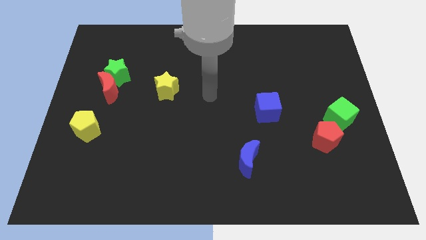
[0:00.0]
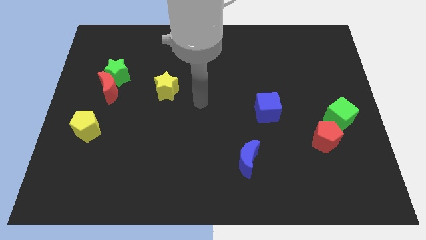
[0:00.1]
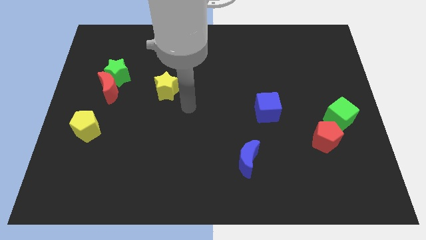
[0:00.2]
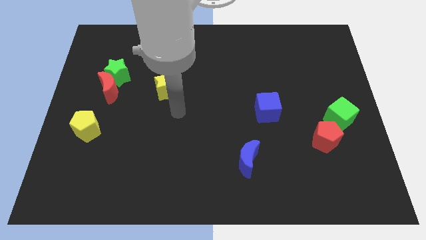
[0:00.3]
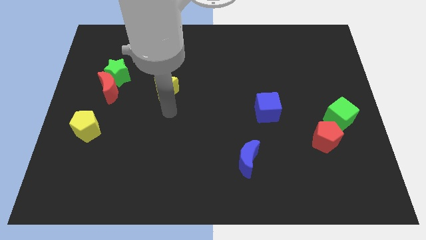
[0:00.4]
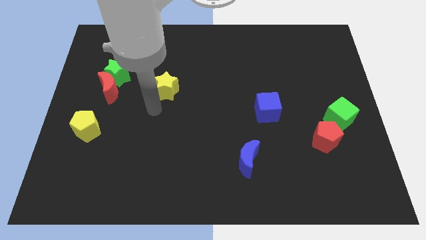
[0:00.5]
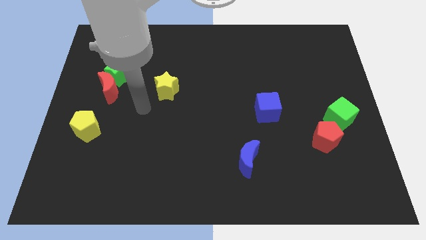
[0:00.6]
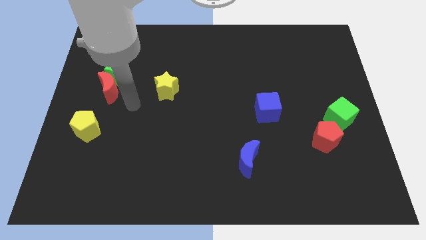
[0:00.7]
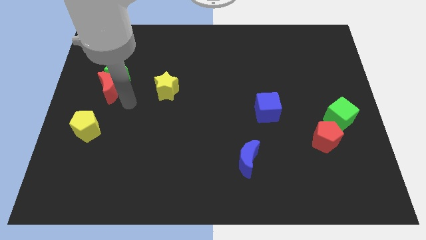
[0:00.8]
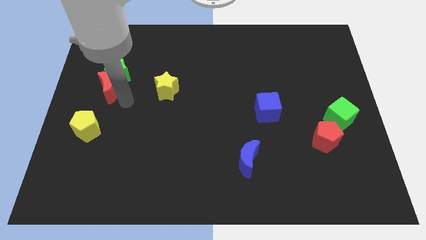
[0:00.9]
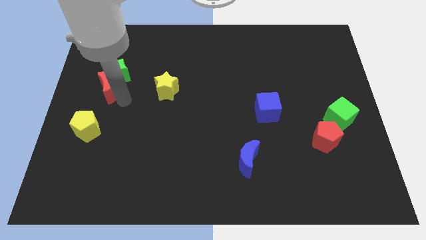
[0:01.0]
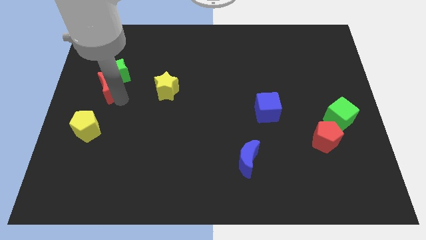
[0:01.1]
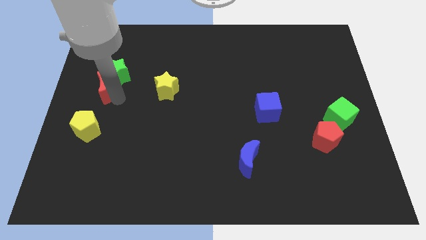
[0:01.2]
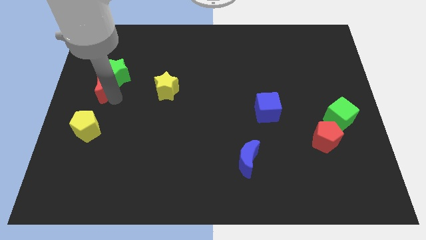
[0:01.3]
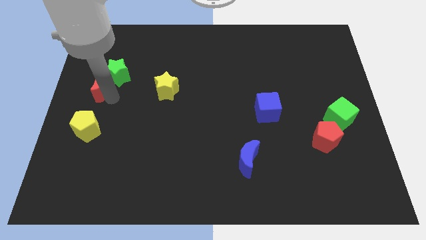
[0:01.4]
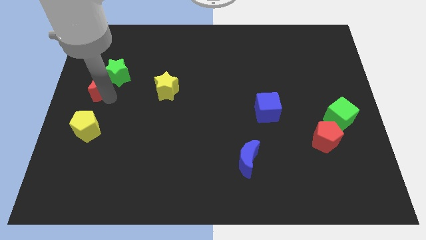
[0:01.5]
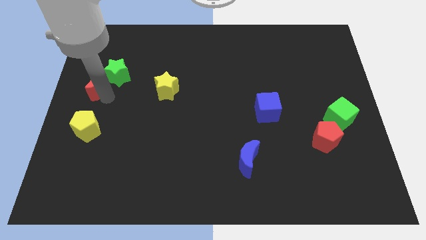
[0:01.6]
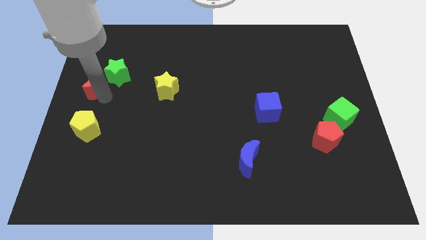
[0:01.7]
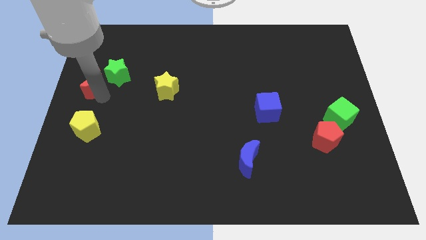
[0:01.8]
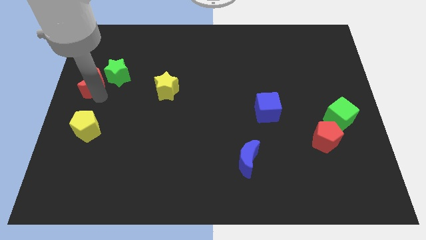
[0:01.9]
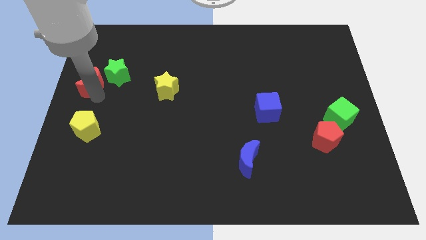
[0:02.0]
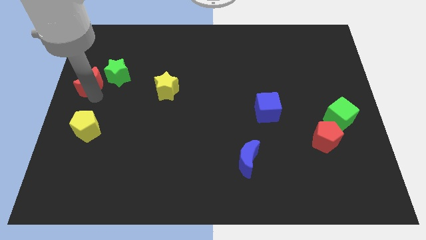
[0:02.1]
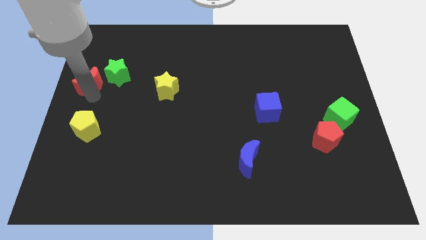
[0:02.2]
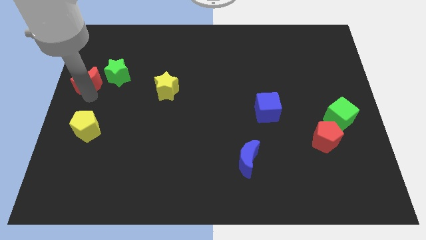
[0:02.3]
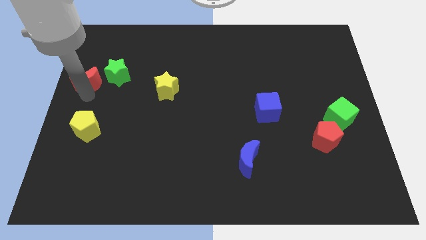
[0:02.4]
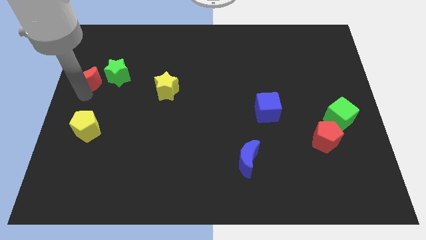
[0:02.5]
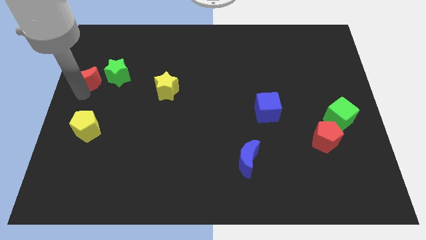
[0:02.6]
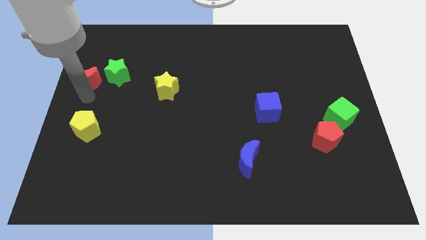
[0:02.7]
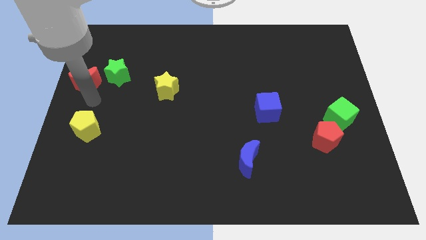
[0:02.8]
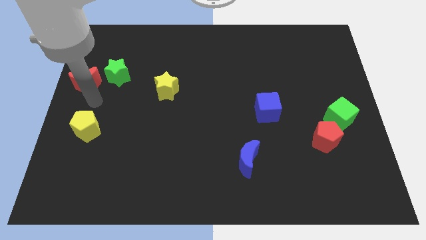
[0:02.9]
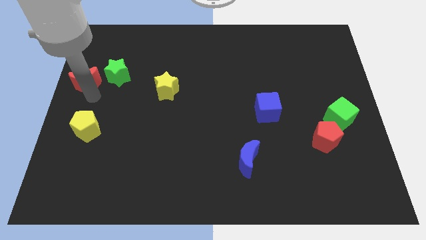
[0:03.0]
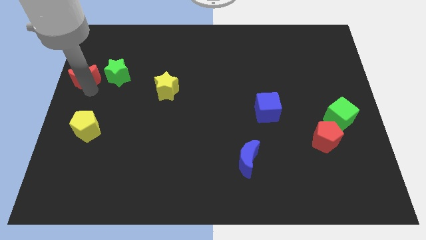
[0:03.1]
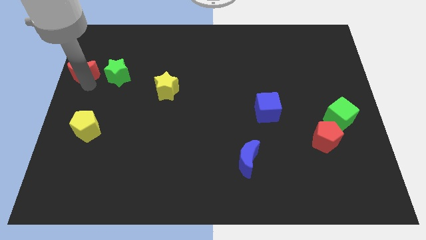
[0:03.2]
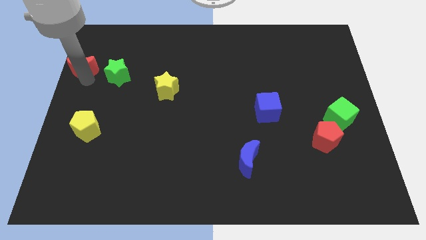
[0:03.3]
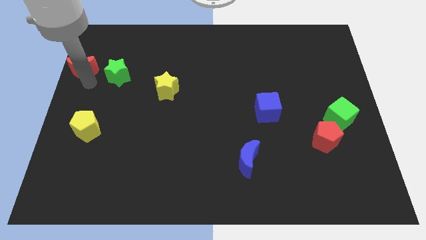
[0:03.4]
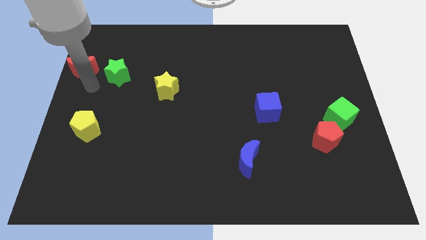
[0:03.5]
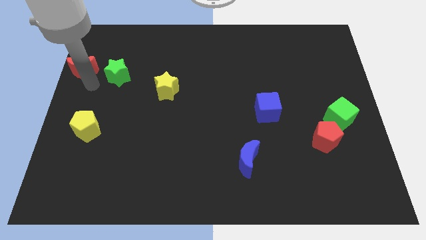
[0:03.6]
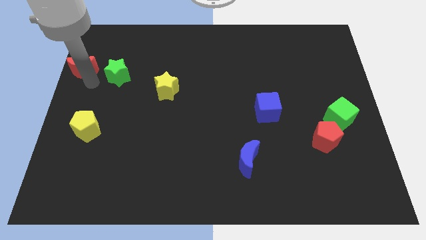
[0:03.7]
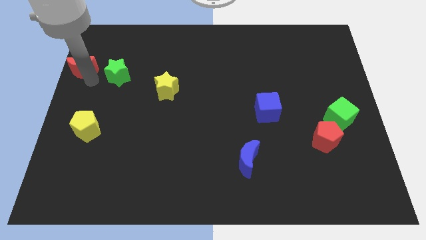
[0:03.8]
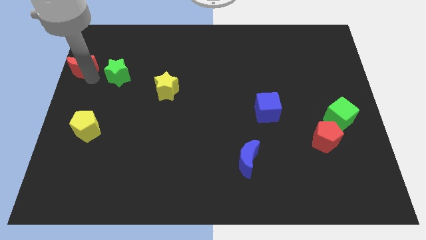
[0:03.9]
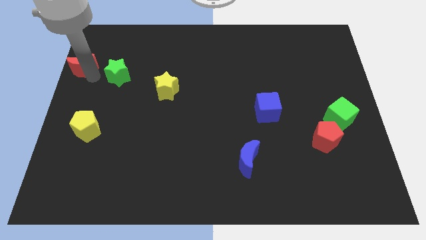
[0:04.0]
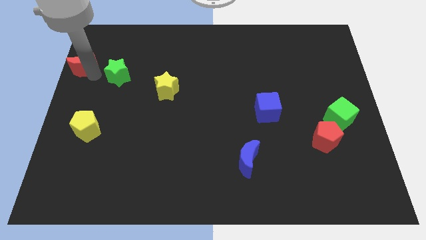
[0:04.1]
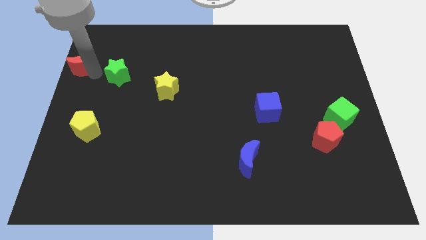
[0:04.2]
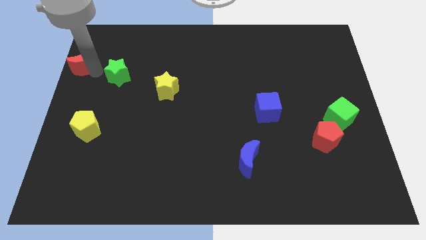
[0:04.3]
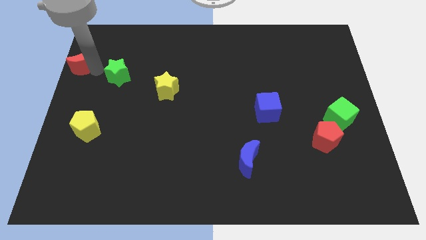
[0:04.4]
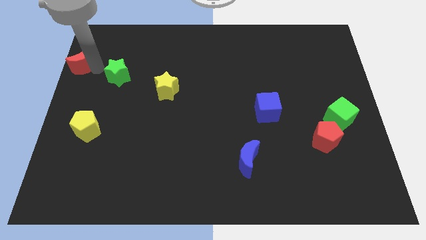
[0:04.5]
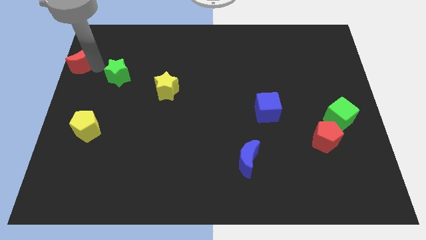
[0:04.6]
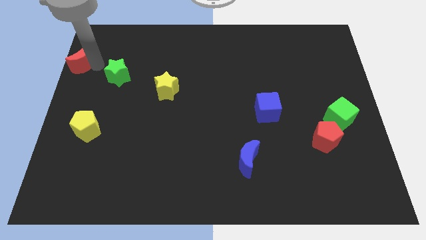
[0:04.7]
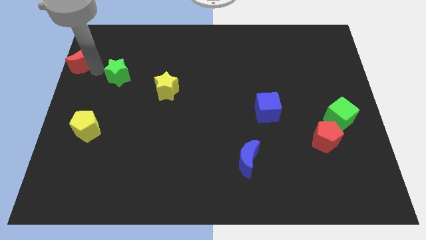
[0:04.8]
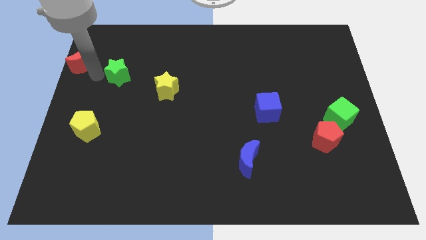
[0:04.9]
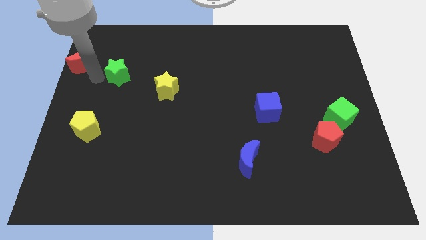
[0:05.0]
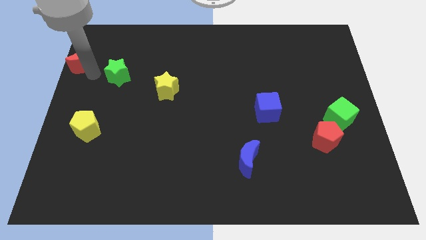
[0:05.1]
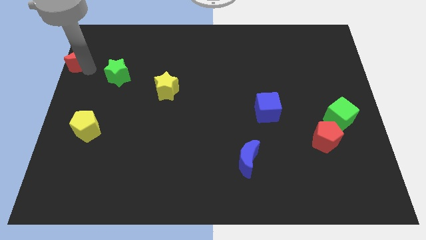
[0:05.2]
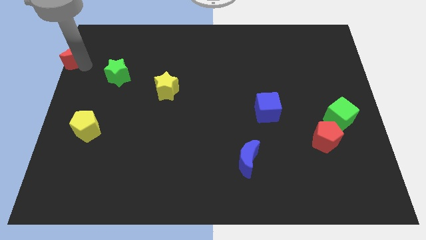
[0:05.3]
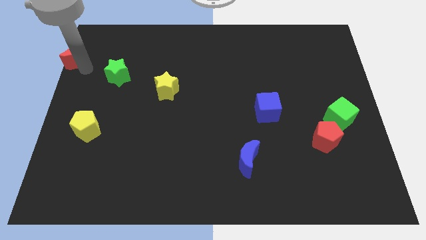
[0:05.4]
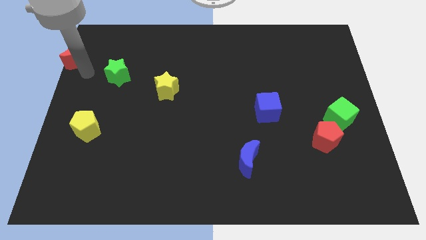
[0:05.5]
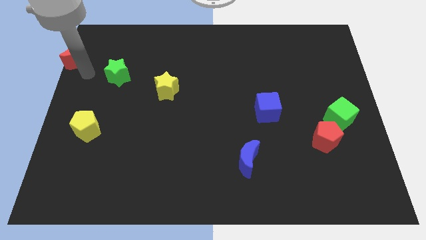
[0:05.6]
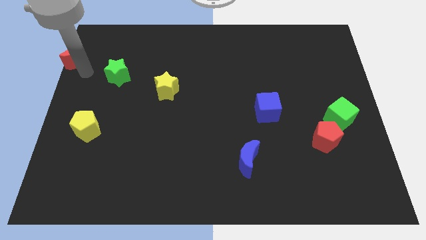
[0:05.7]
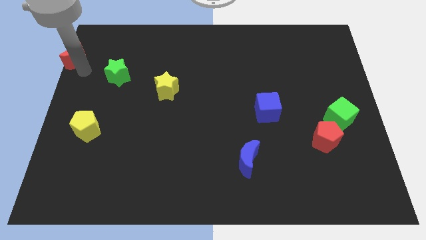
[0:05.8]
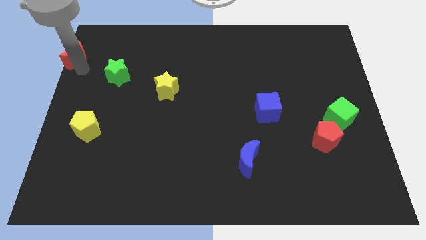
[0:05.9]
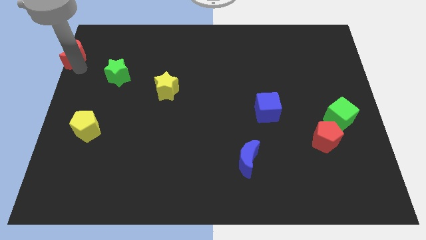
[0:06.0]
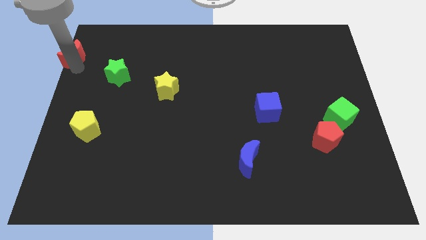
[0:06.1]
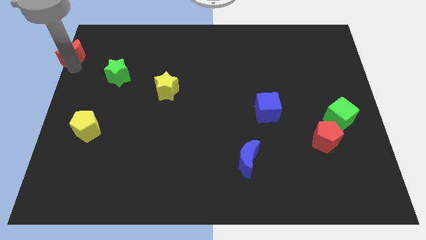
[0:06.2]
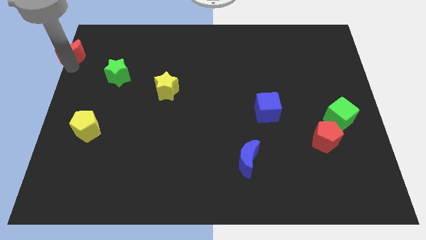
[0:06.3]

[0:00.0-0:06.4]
put the red moon to the top left corner

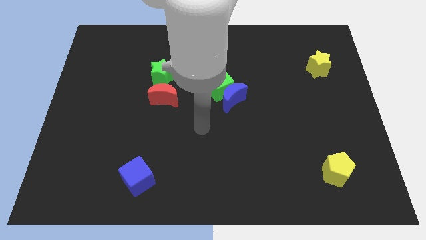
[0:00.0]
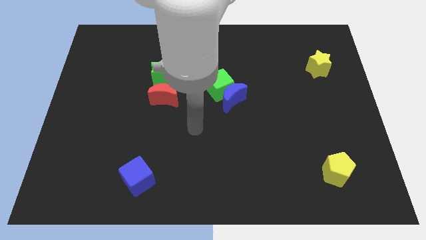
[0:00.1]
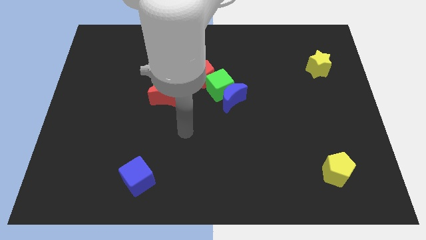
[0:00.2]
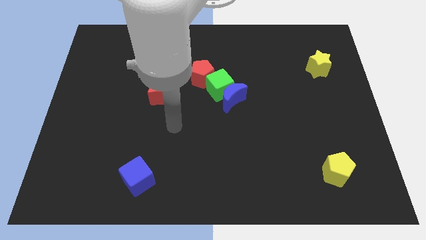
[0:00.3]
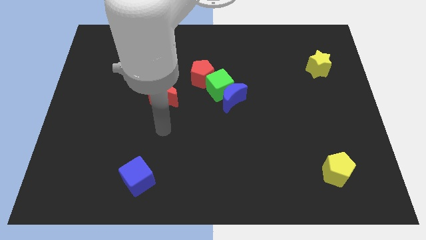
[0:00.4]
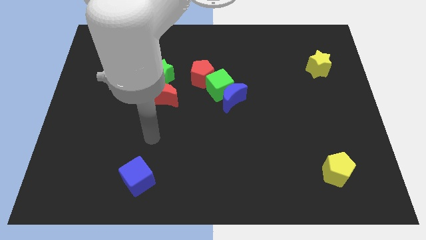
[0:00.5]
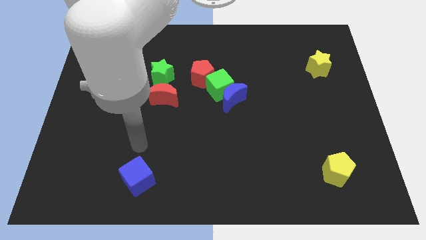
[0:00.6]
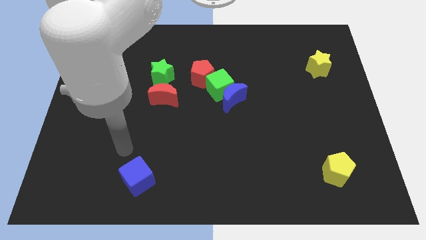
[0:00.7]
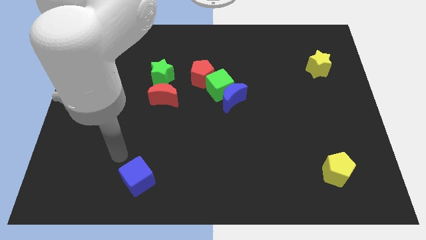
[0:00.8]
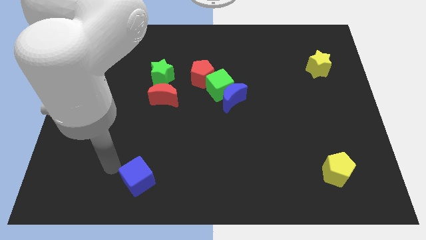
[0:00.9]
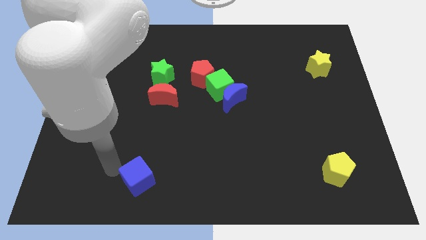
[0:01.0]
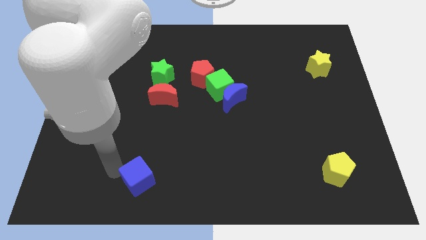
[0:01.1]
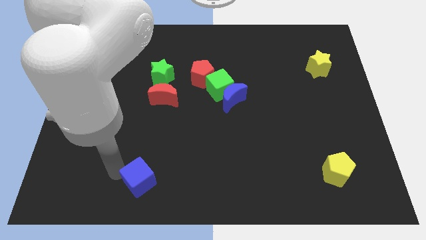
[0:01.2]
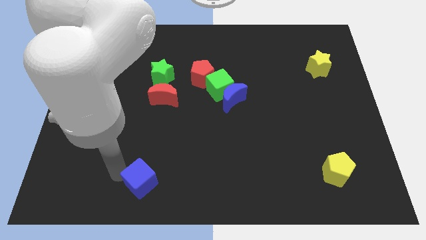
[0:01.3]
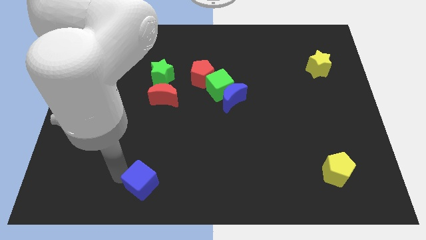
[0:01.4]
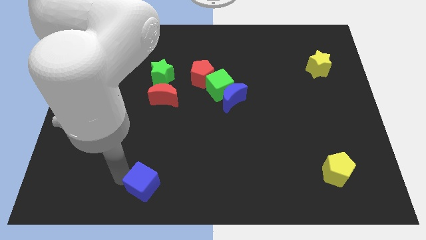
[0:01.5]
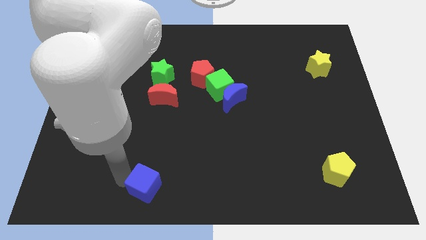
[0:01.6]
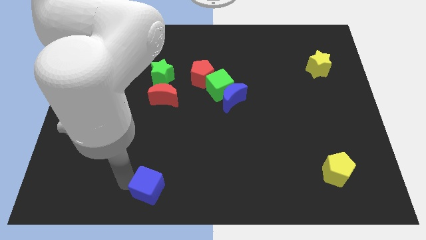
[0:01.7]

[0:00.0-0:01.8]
put the blue cube to the bottom side
